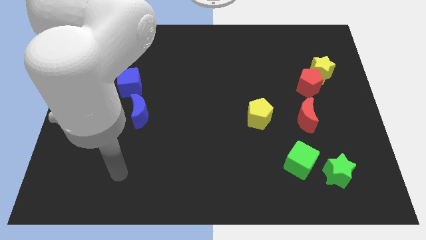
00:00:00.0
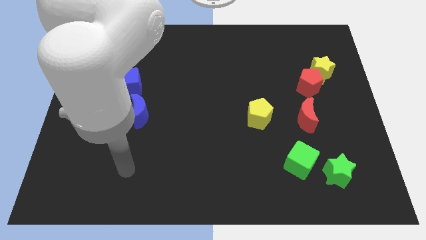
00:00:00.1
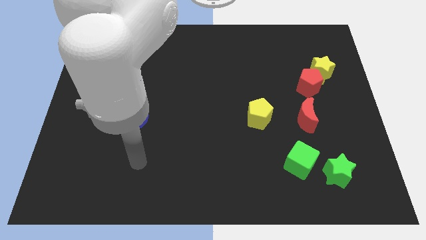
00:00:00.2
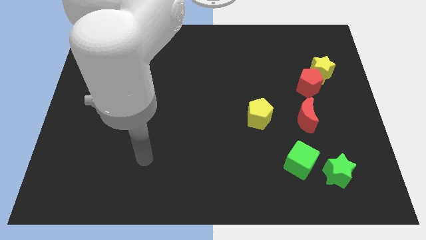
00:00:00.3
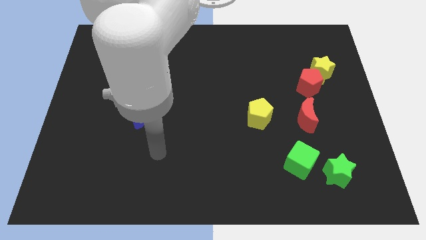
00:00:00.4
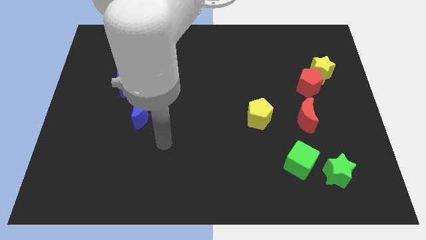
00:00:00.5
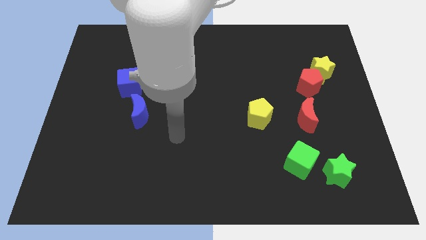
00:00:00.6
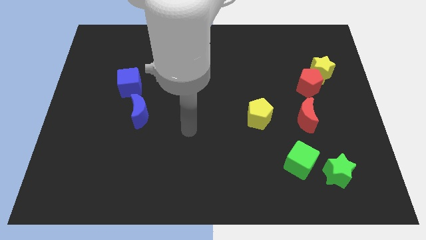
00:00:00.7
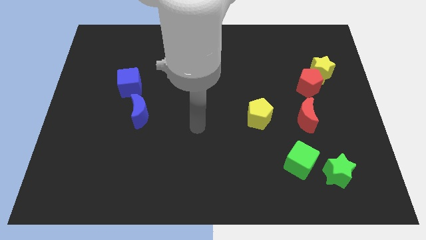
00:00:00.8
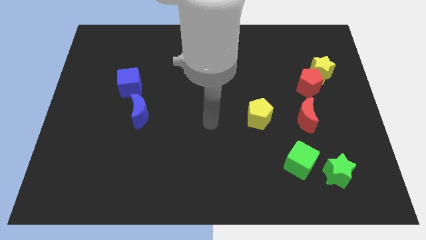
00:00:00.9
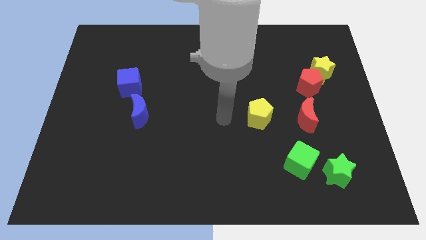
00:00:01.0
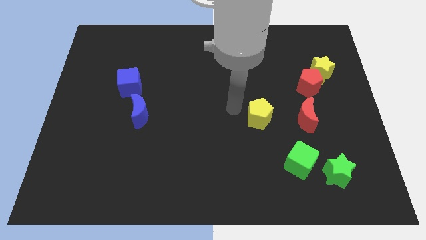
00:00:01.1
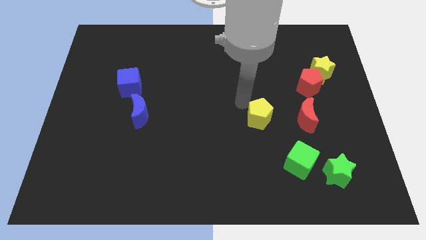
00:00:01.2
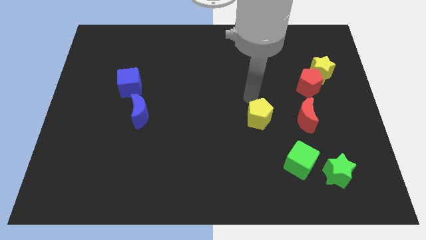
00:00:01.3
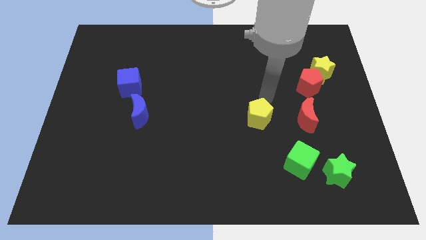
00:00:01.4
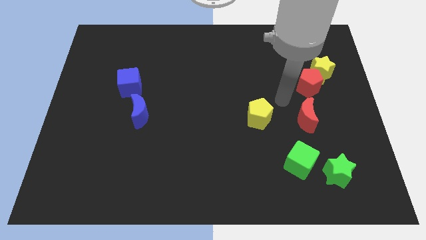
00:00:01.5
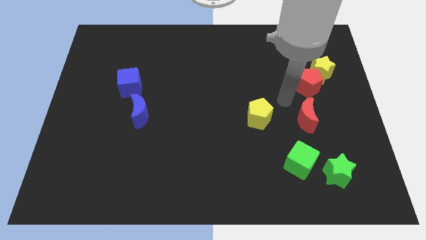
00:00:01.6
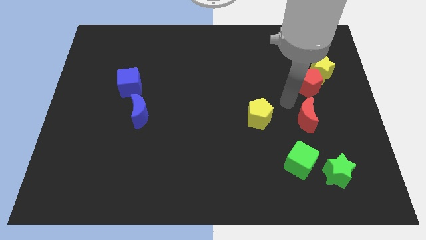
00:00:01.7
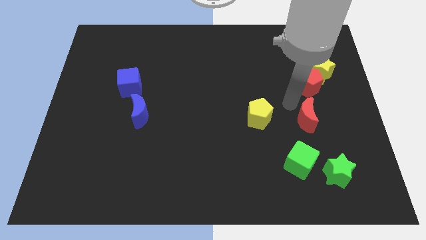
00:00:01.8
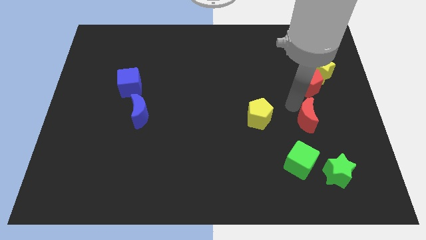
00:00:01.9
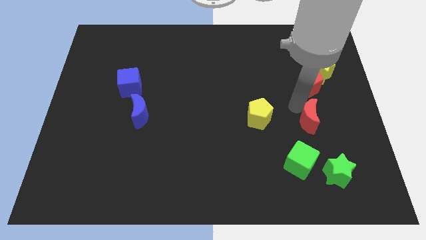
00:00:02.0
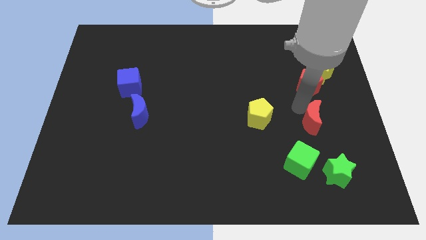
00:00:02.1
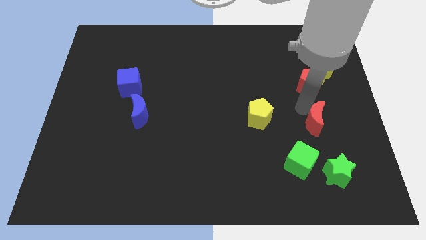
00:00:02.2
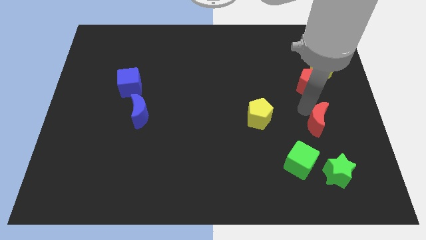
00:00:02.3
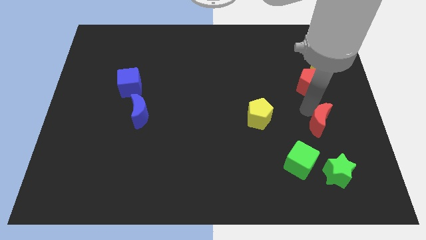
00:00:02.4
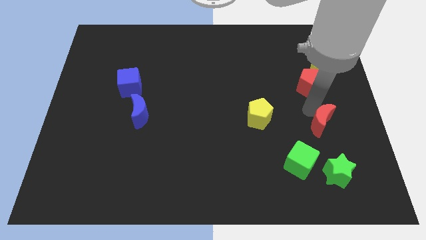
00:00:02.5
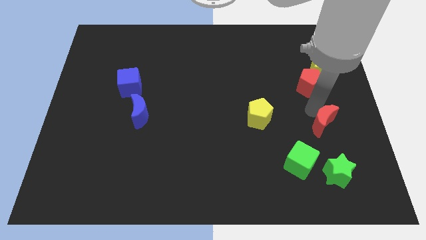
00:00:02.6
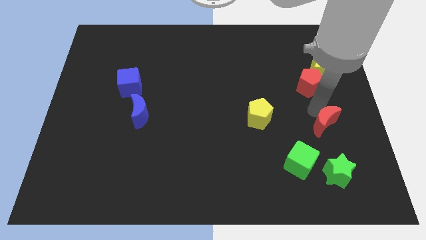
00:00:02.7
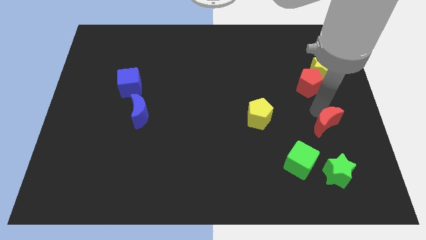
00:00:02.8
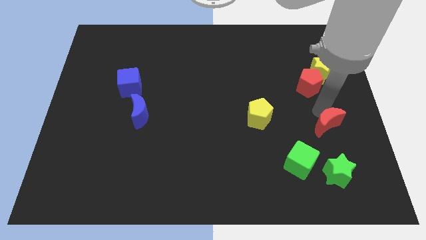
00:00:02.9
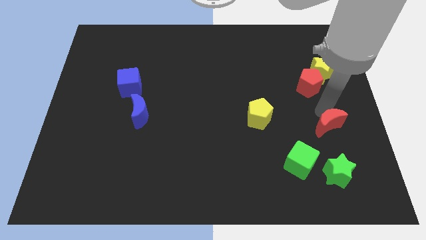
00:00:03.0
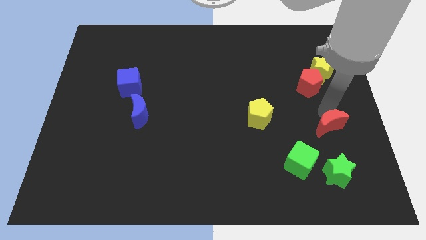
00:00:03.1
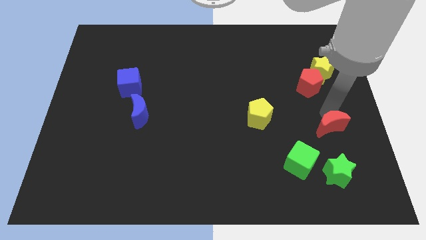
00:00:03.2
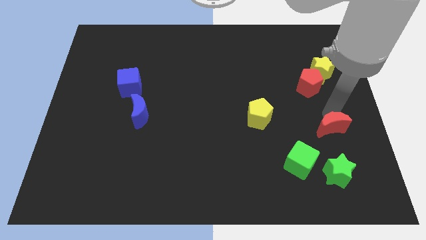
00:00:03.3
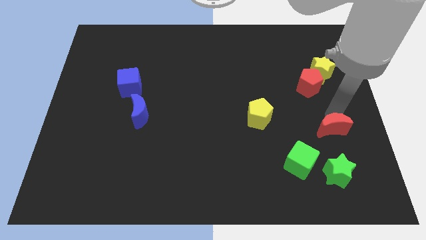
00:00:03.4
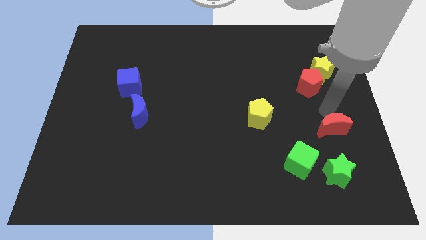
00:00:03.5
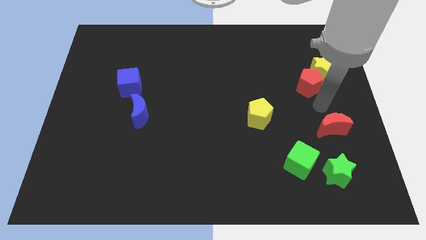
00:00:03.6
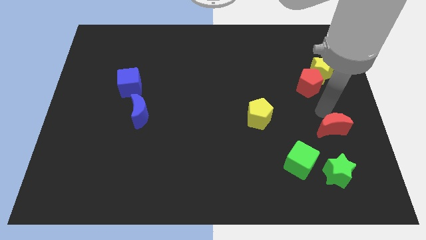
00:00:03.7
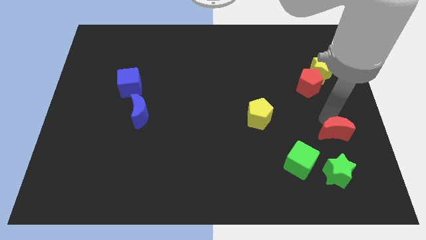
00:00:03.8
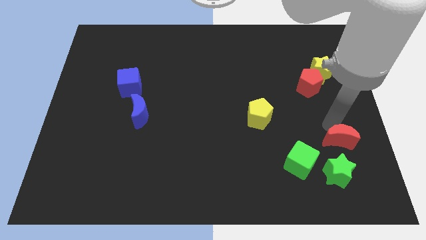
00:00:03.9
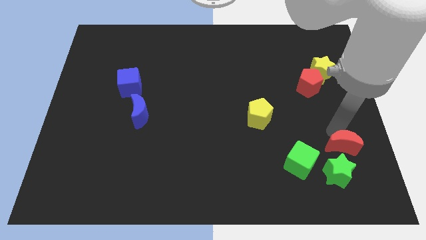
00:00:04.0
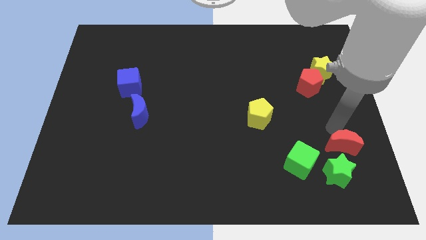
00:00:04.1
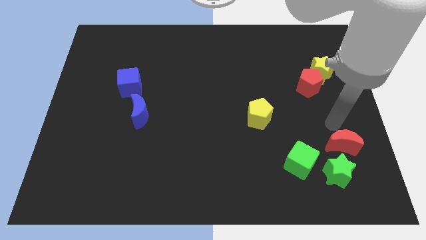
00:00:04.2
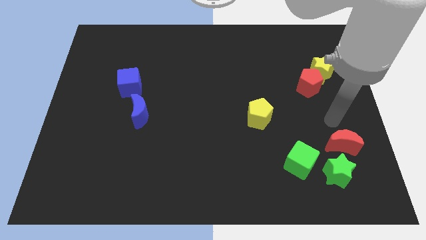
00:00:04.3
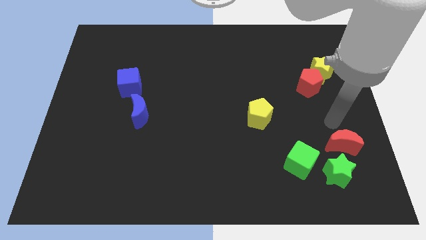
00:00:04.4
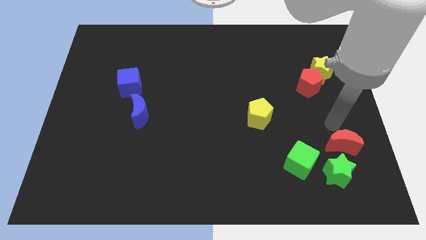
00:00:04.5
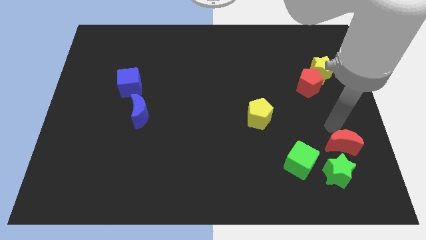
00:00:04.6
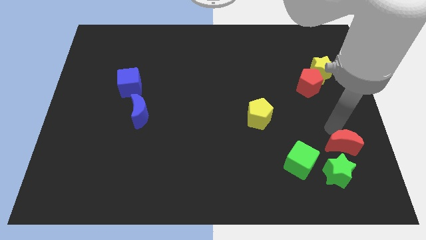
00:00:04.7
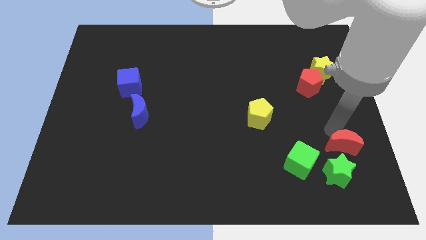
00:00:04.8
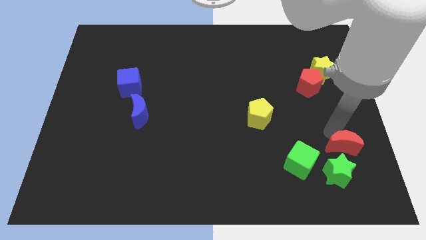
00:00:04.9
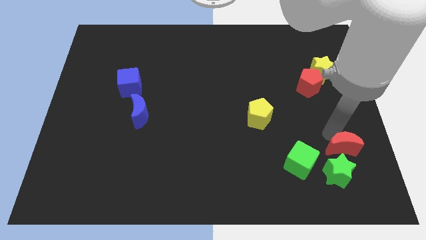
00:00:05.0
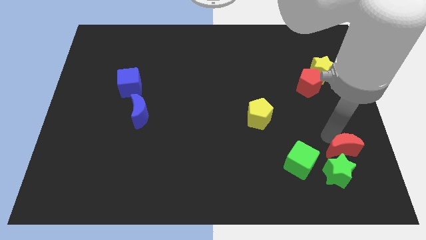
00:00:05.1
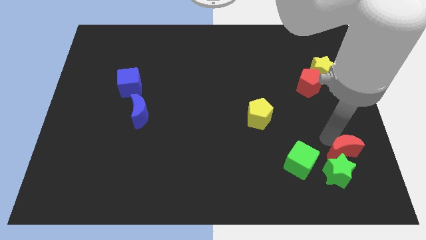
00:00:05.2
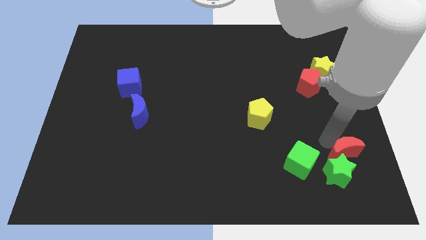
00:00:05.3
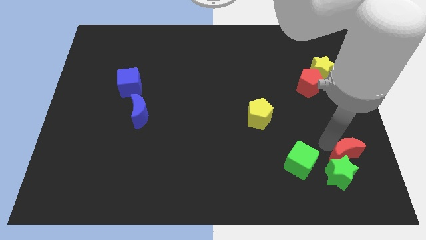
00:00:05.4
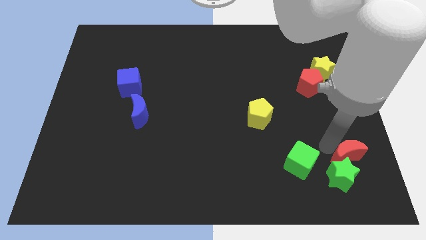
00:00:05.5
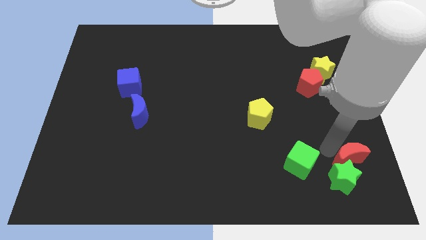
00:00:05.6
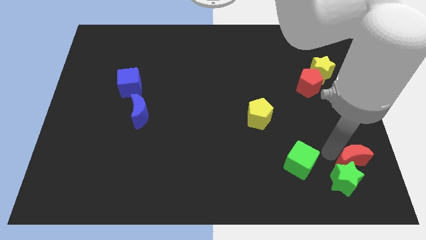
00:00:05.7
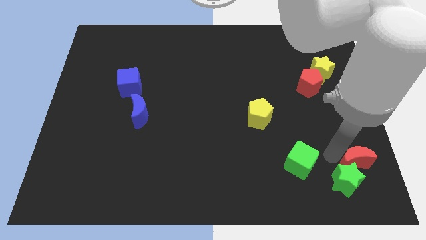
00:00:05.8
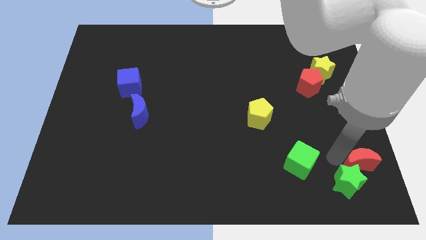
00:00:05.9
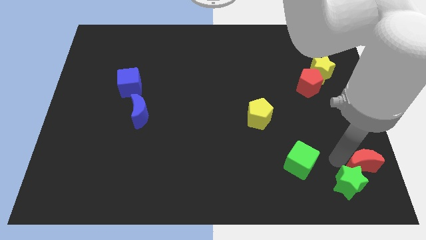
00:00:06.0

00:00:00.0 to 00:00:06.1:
put the red moon to the bottom right of the board

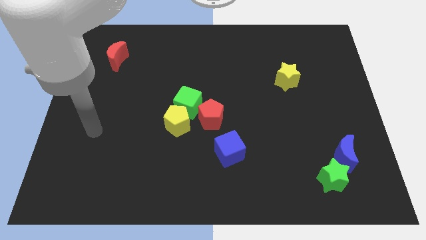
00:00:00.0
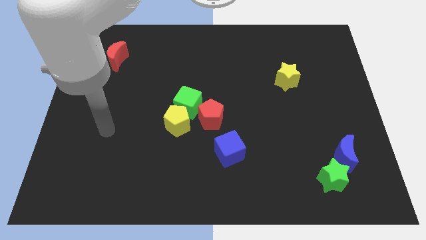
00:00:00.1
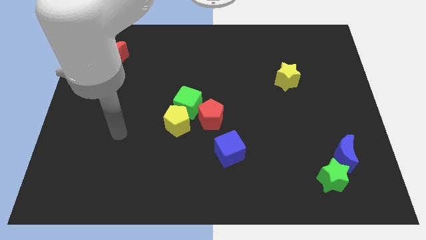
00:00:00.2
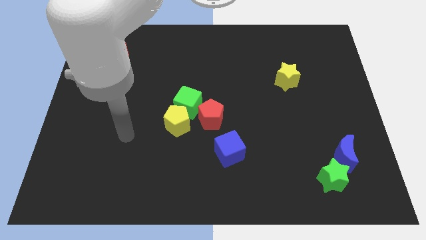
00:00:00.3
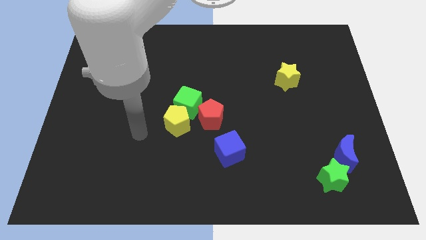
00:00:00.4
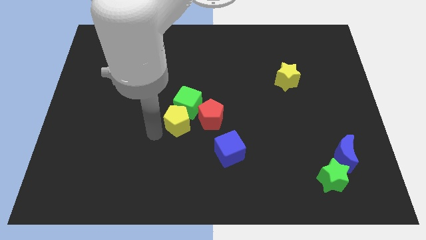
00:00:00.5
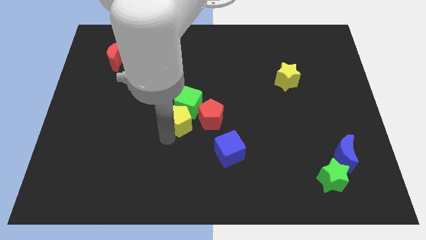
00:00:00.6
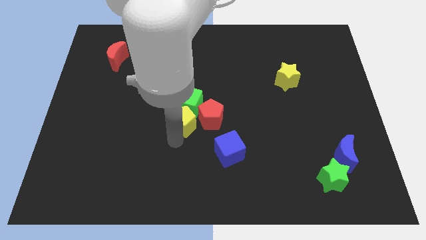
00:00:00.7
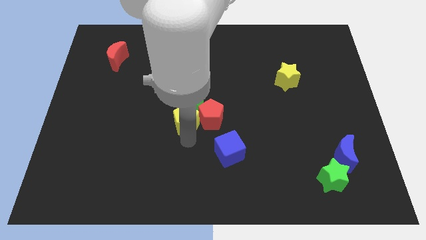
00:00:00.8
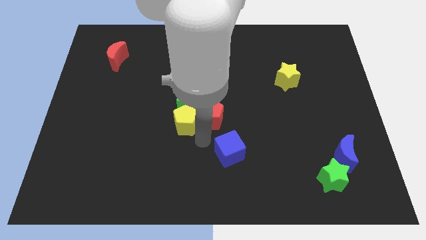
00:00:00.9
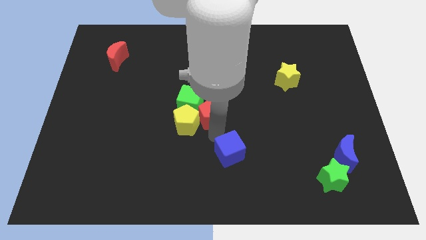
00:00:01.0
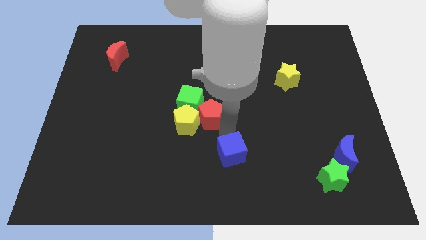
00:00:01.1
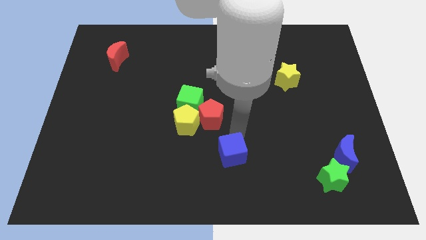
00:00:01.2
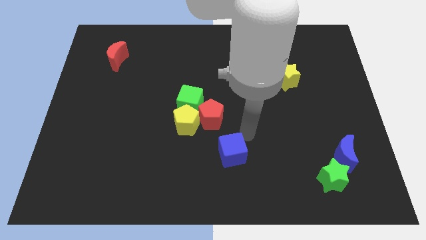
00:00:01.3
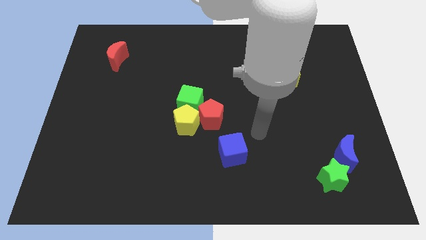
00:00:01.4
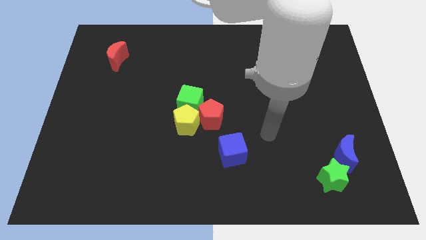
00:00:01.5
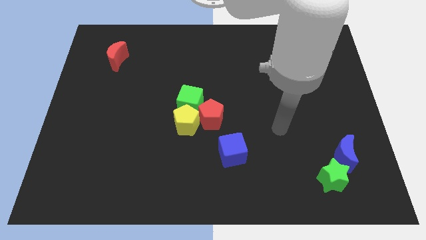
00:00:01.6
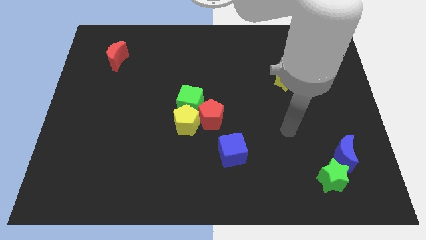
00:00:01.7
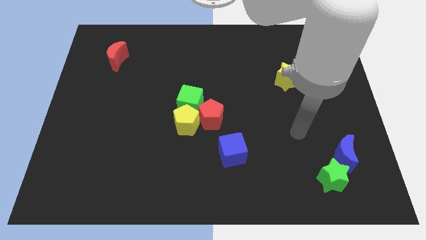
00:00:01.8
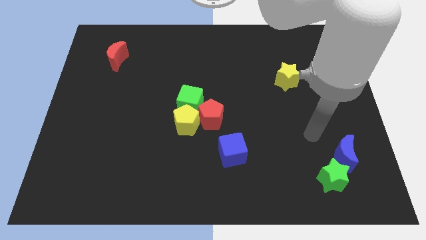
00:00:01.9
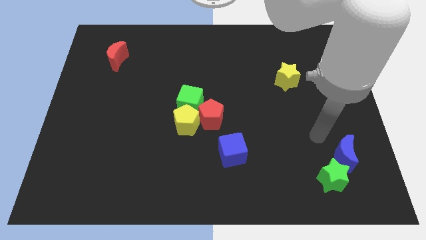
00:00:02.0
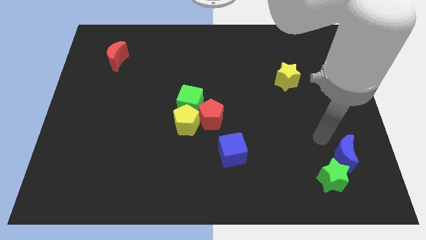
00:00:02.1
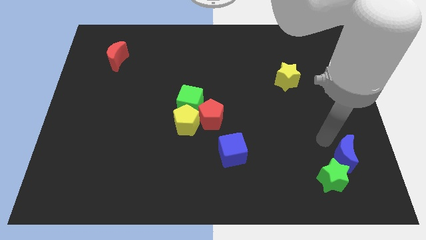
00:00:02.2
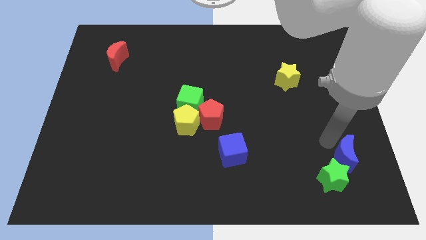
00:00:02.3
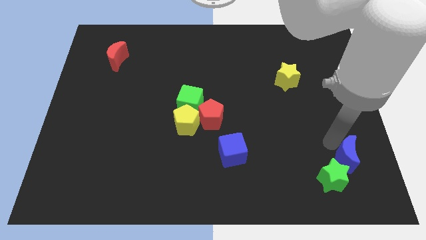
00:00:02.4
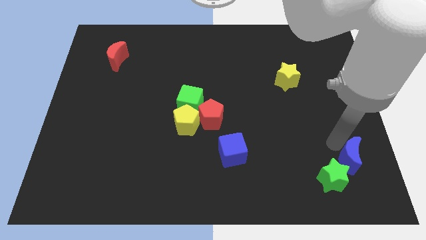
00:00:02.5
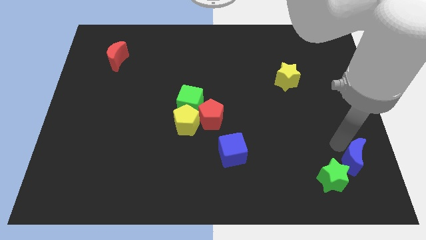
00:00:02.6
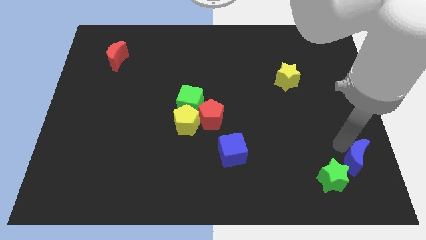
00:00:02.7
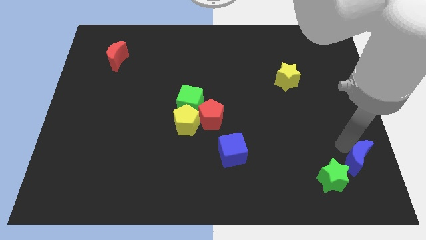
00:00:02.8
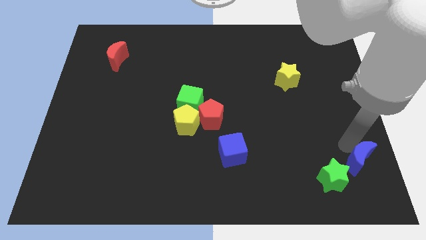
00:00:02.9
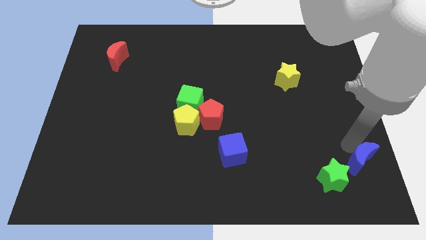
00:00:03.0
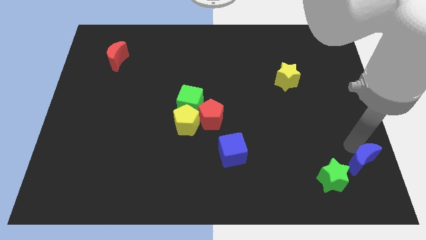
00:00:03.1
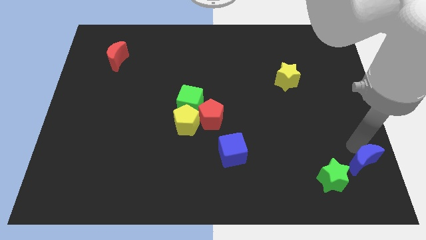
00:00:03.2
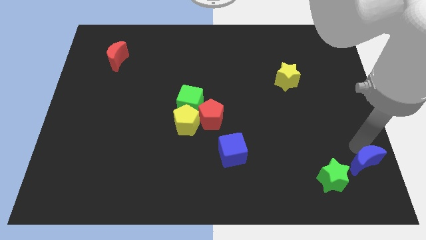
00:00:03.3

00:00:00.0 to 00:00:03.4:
move the blue moon to the bottom right of the board
